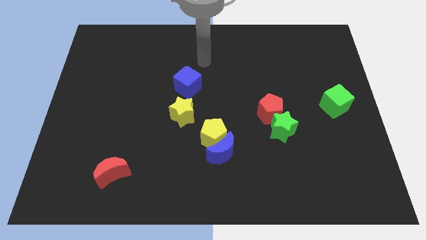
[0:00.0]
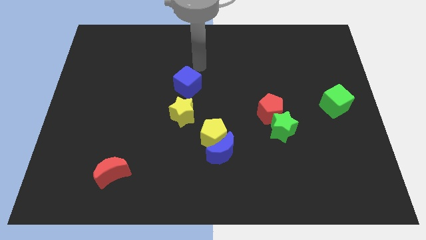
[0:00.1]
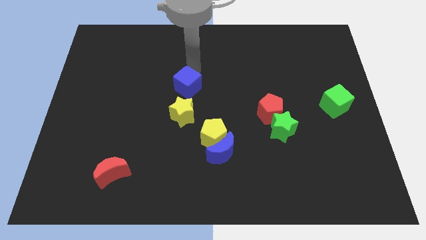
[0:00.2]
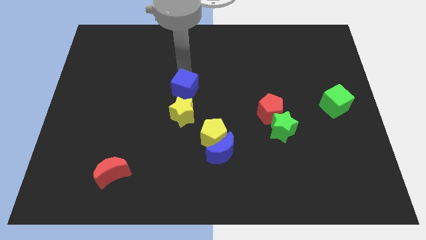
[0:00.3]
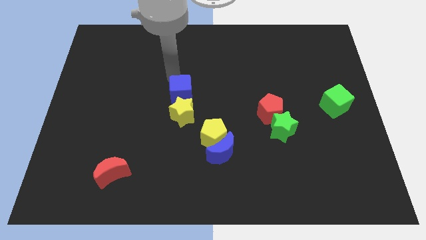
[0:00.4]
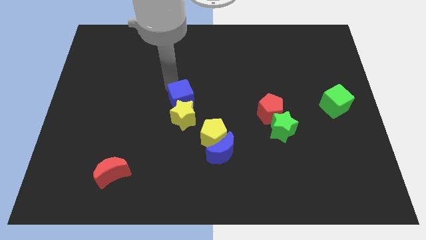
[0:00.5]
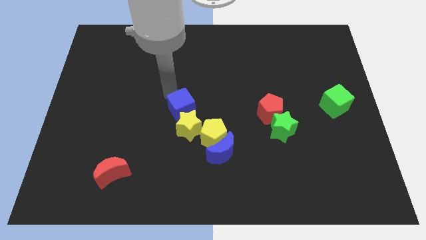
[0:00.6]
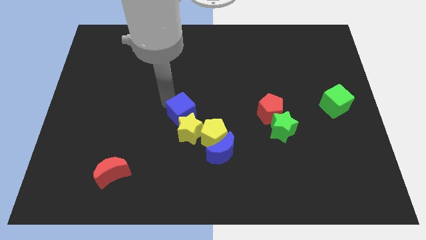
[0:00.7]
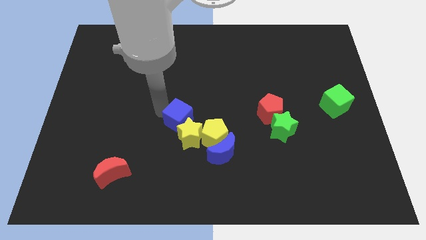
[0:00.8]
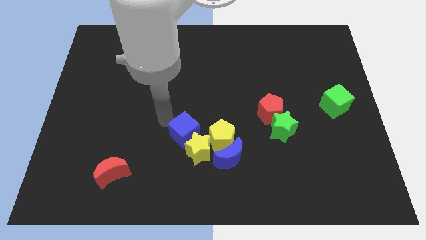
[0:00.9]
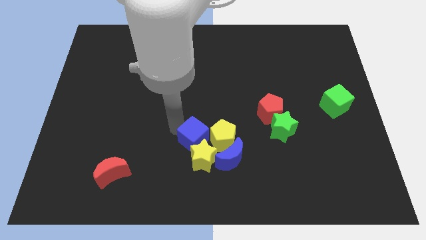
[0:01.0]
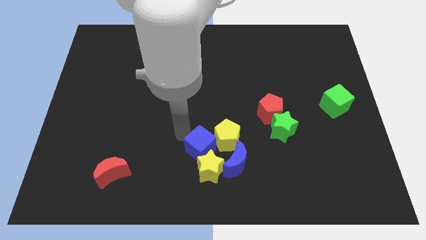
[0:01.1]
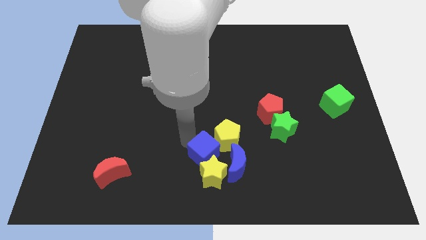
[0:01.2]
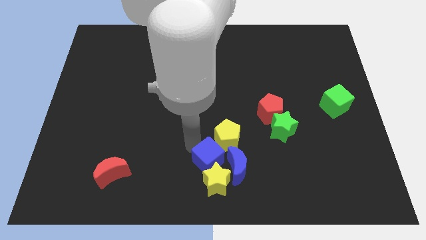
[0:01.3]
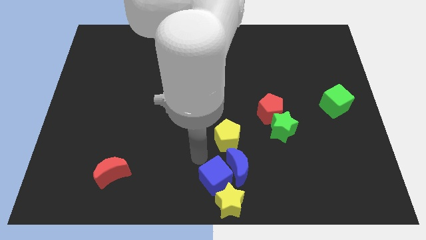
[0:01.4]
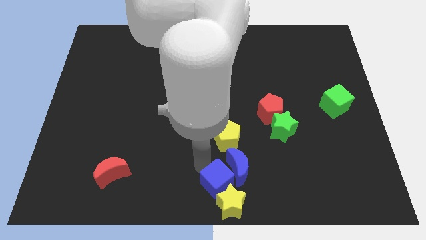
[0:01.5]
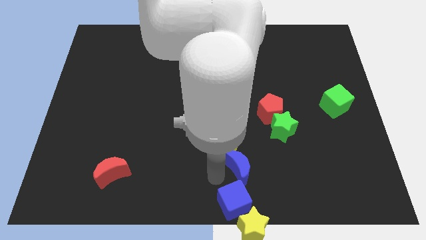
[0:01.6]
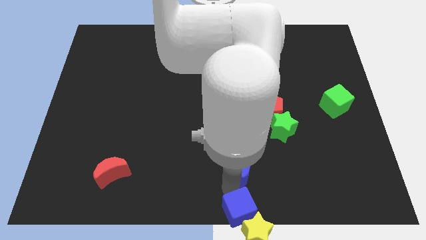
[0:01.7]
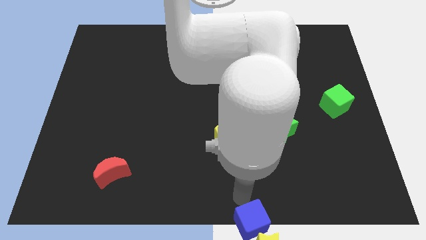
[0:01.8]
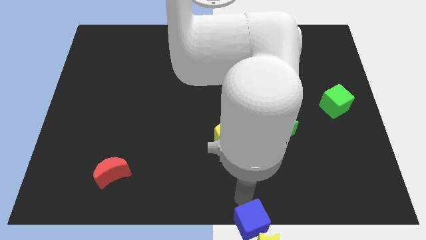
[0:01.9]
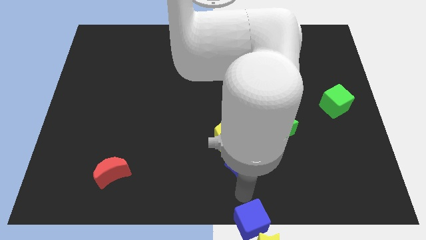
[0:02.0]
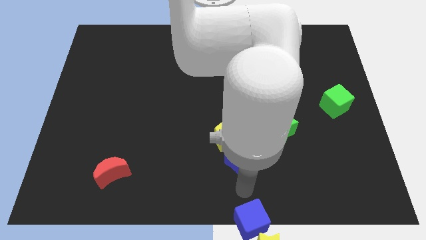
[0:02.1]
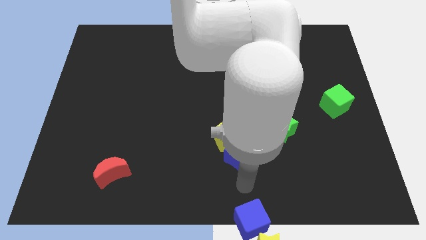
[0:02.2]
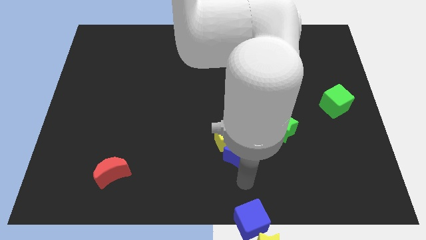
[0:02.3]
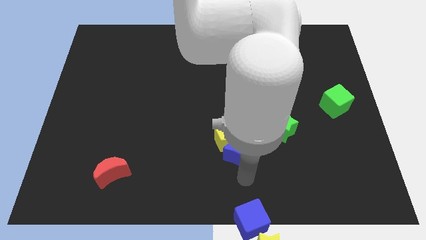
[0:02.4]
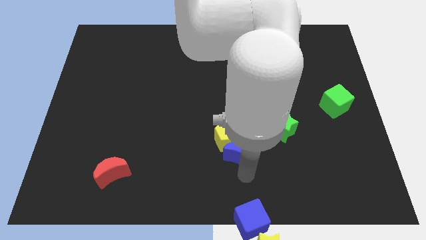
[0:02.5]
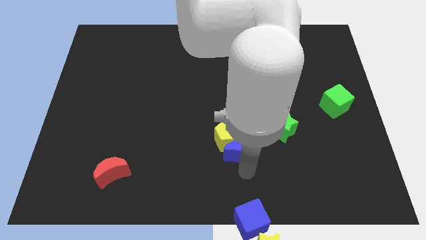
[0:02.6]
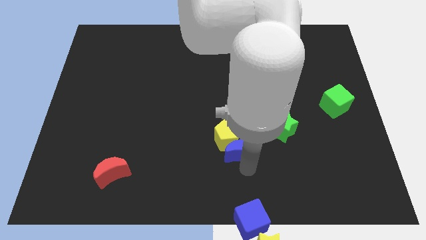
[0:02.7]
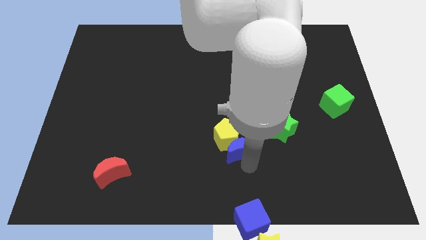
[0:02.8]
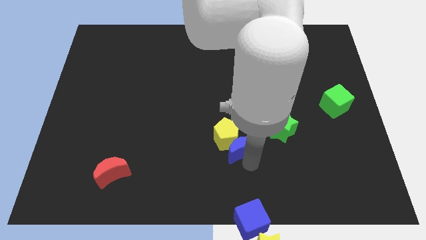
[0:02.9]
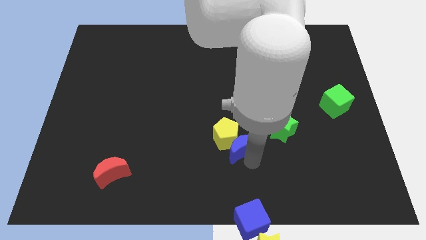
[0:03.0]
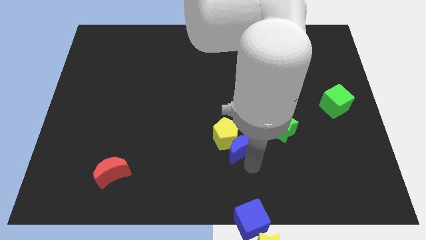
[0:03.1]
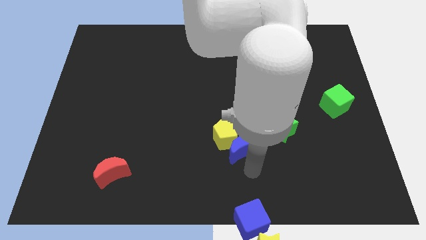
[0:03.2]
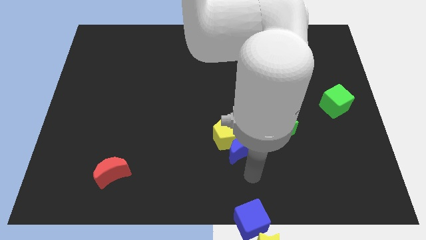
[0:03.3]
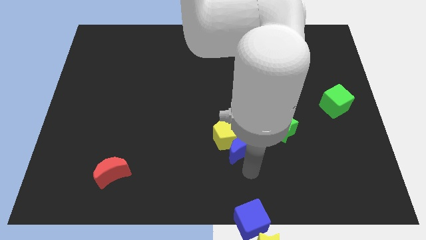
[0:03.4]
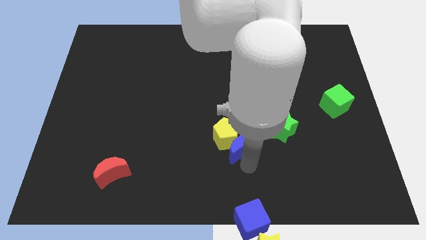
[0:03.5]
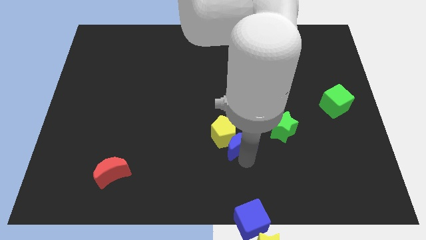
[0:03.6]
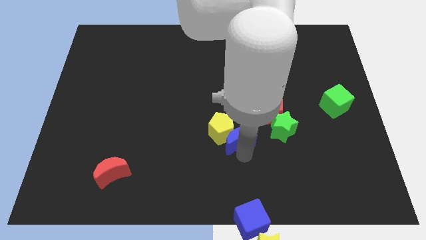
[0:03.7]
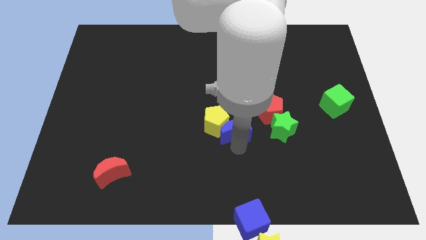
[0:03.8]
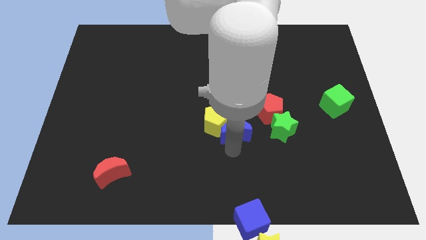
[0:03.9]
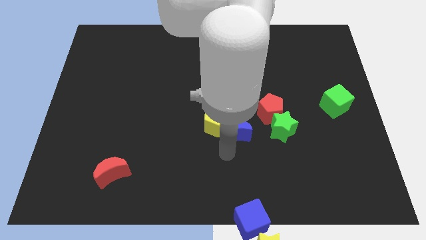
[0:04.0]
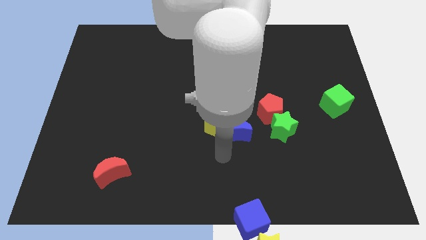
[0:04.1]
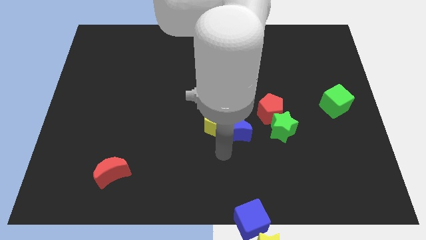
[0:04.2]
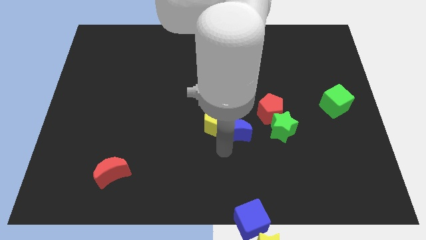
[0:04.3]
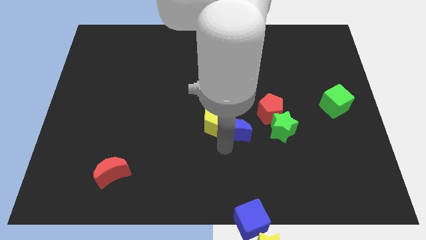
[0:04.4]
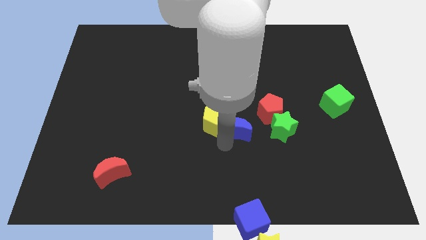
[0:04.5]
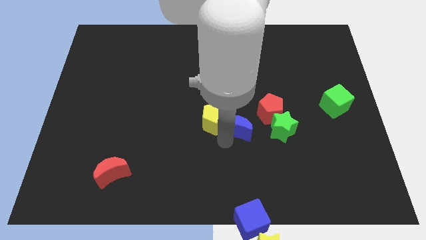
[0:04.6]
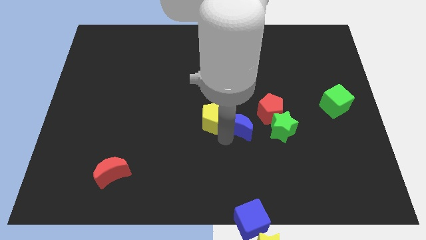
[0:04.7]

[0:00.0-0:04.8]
slightly move the blue moon up and right

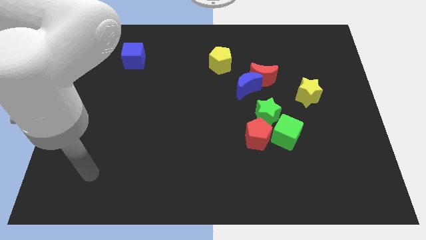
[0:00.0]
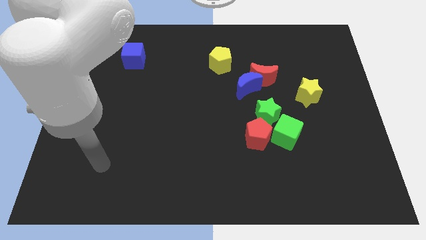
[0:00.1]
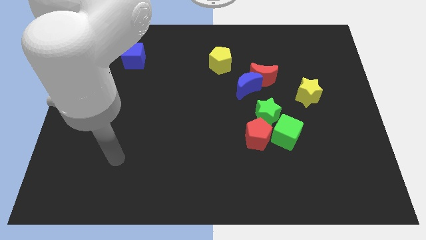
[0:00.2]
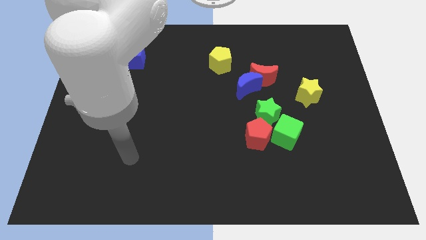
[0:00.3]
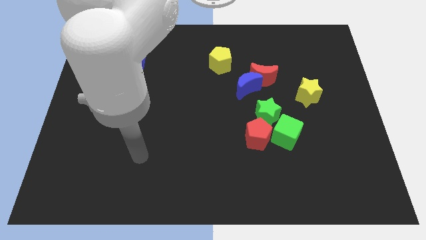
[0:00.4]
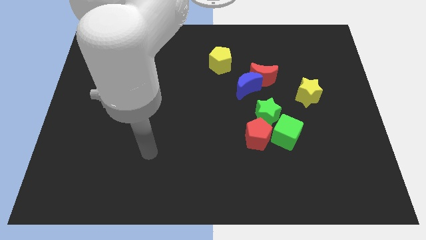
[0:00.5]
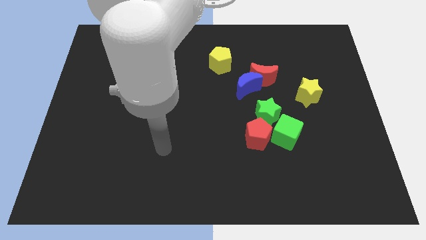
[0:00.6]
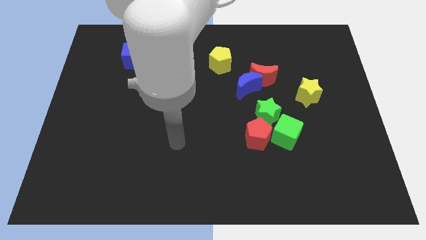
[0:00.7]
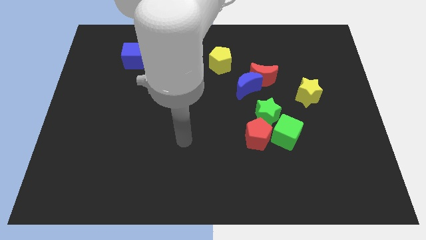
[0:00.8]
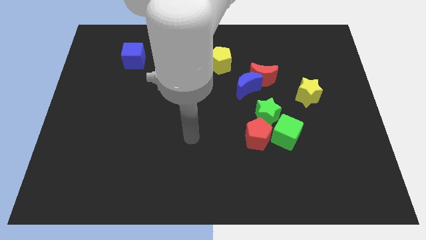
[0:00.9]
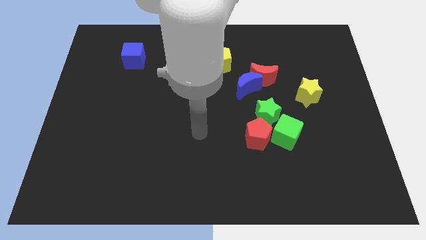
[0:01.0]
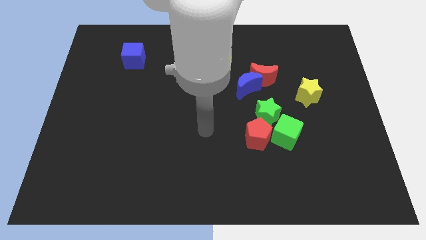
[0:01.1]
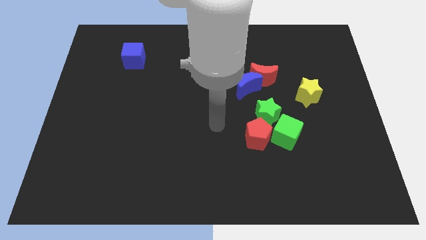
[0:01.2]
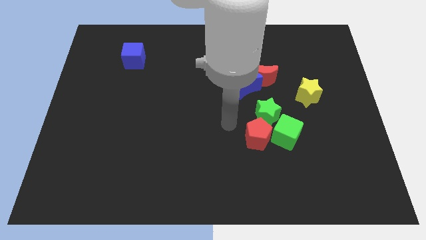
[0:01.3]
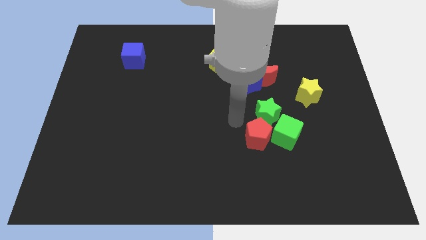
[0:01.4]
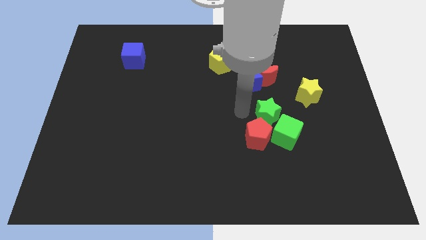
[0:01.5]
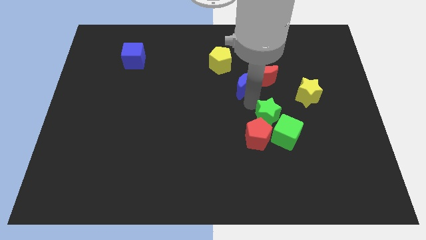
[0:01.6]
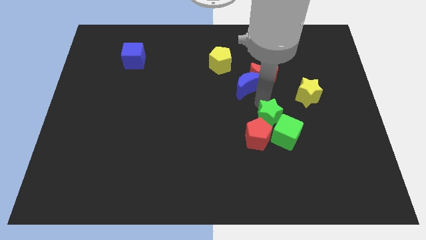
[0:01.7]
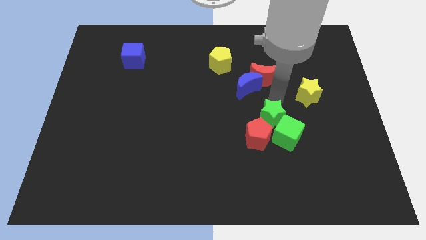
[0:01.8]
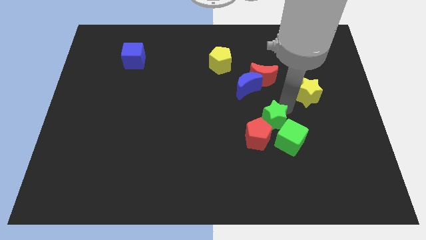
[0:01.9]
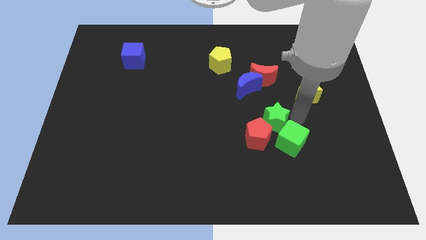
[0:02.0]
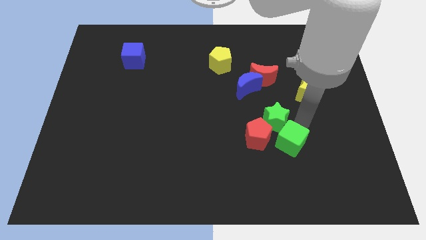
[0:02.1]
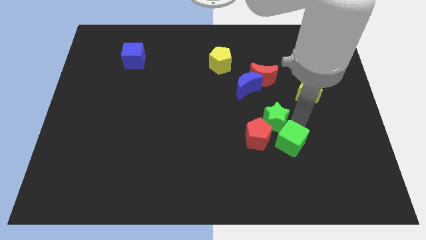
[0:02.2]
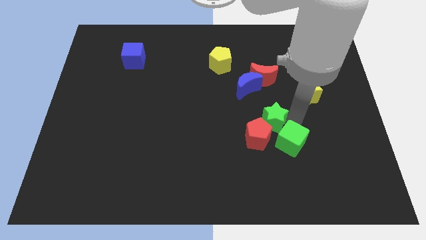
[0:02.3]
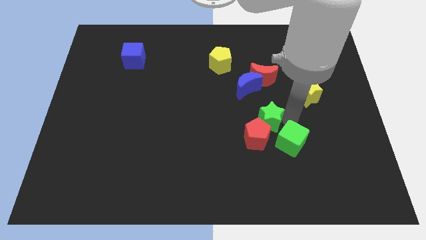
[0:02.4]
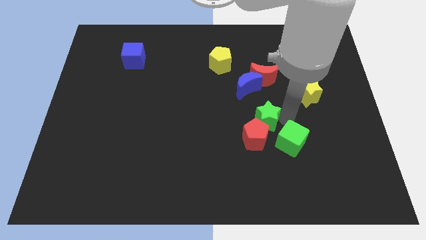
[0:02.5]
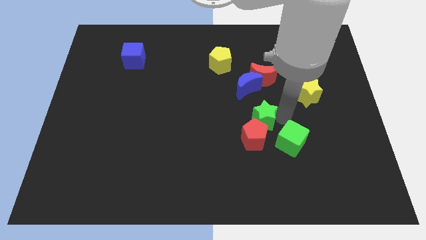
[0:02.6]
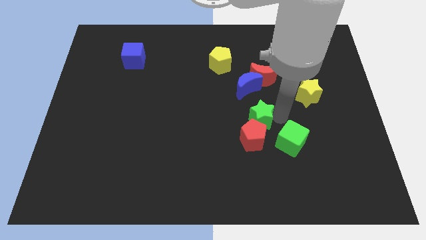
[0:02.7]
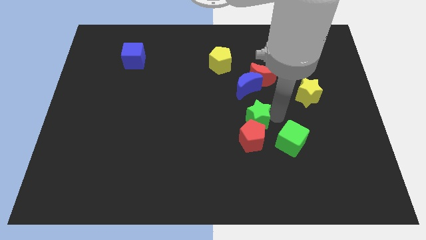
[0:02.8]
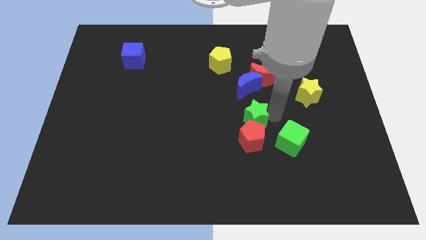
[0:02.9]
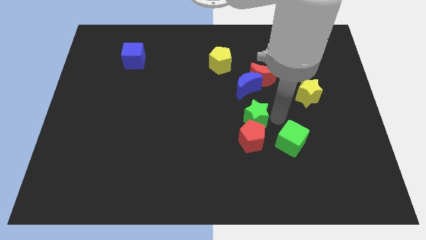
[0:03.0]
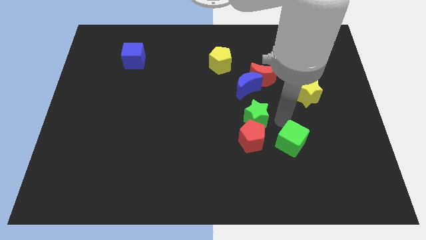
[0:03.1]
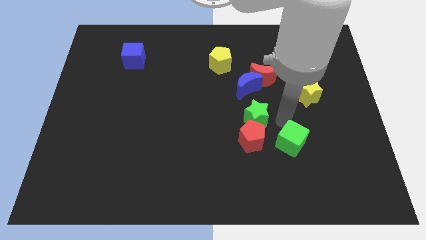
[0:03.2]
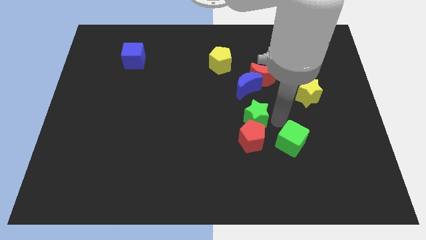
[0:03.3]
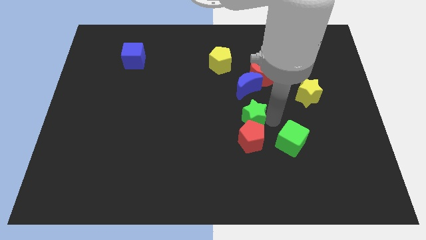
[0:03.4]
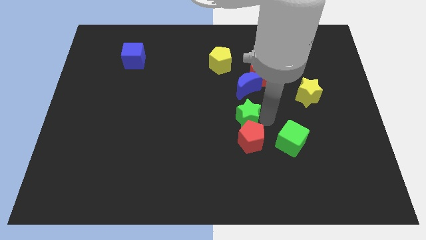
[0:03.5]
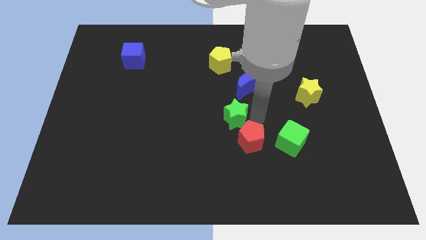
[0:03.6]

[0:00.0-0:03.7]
move the green star a bit to the left
